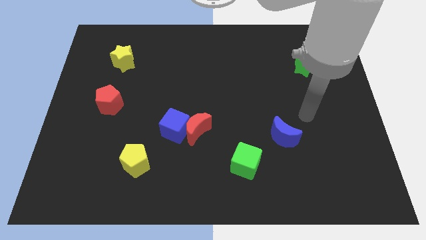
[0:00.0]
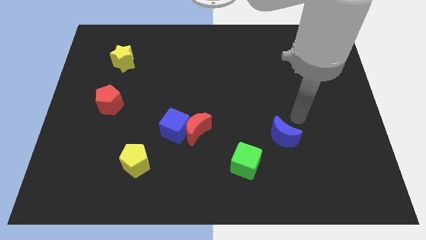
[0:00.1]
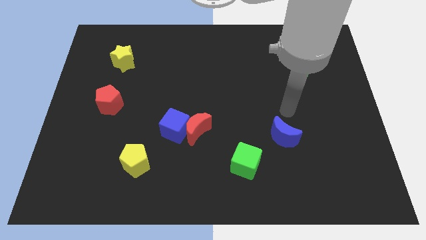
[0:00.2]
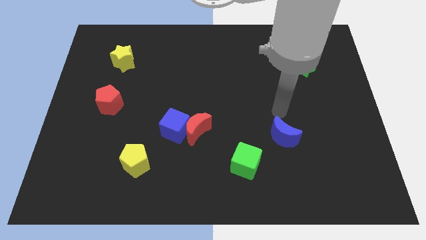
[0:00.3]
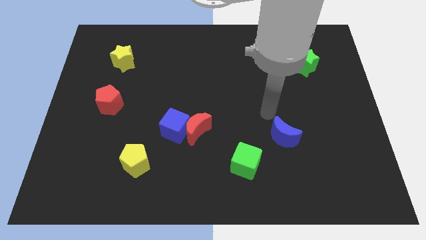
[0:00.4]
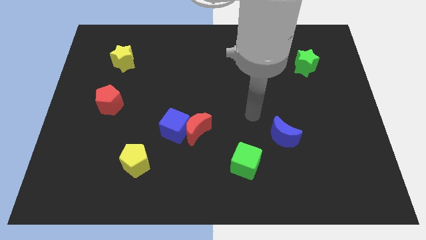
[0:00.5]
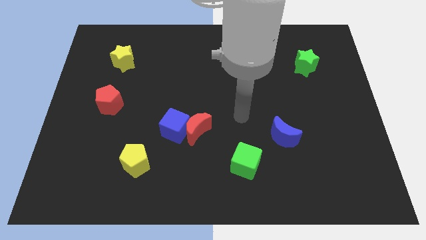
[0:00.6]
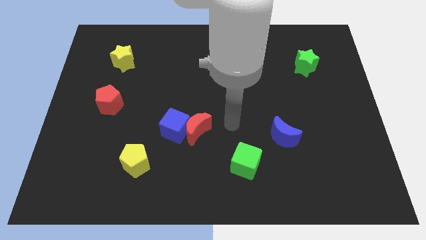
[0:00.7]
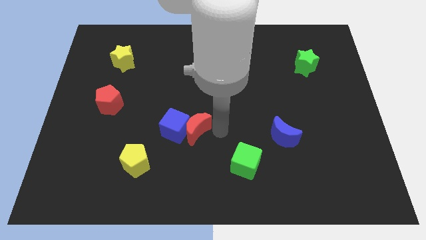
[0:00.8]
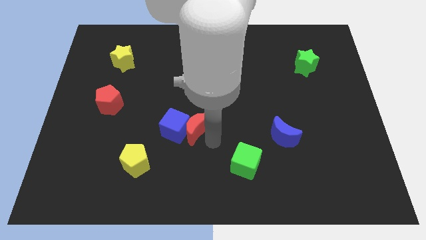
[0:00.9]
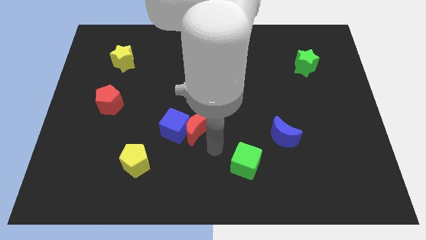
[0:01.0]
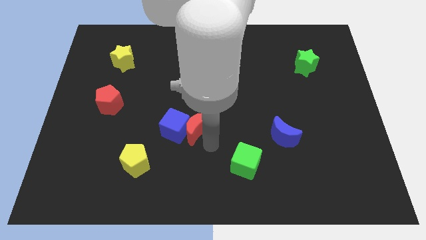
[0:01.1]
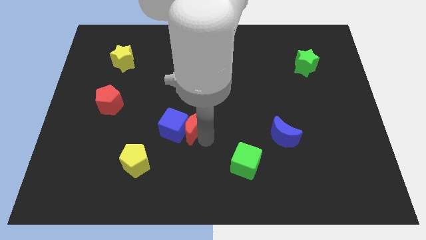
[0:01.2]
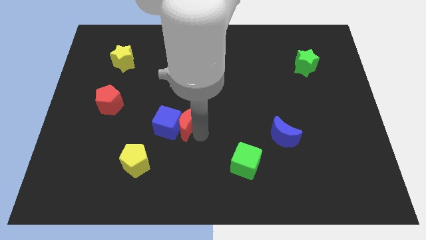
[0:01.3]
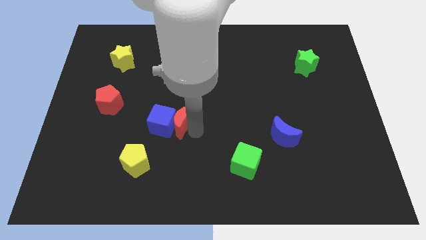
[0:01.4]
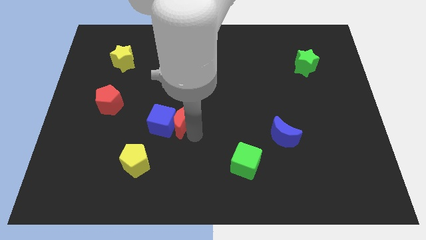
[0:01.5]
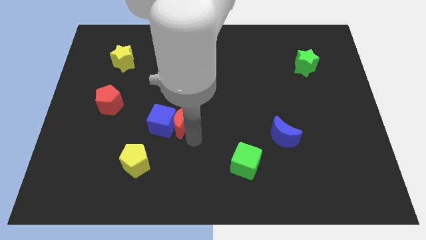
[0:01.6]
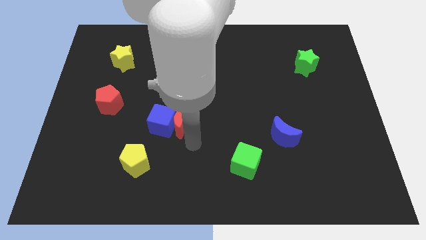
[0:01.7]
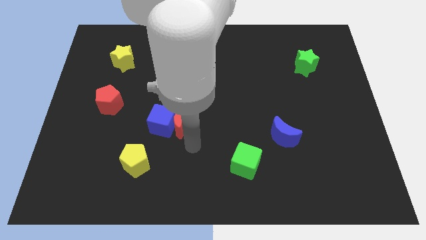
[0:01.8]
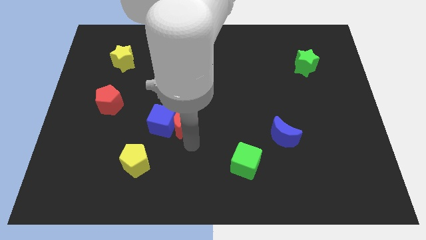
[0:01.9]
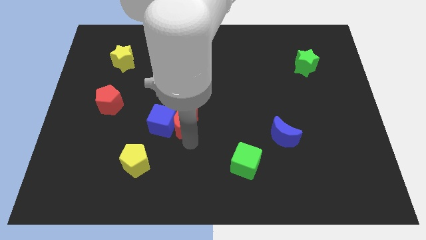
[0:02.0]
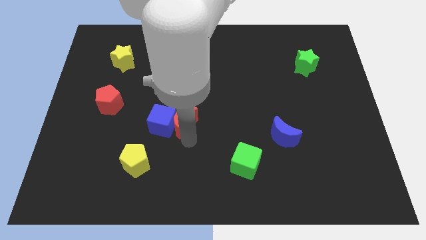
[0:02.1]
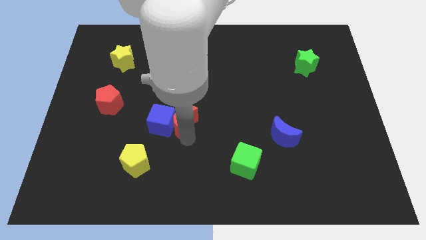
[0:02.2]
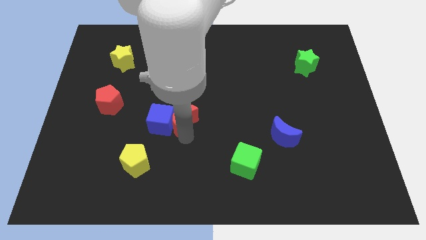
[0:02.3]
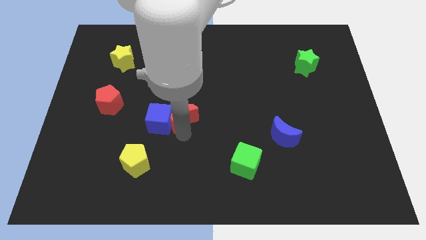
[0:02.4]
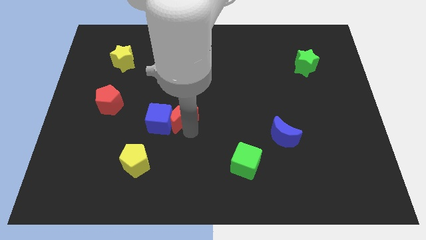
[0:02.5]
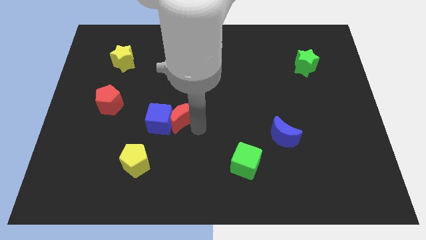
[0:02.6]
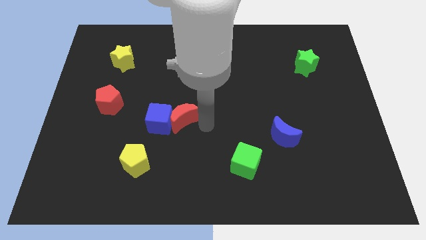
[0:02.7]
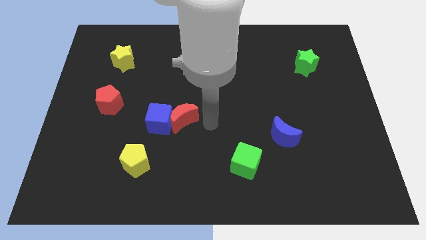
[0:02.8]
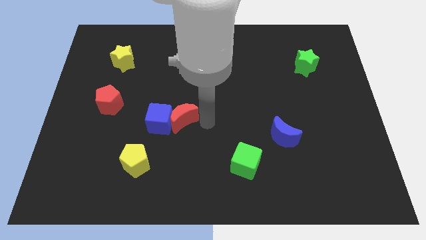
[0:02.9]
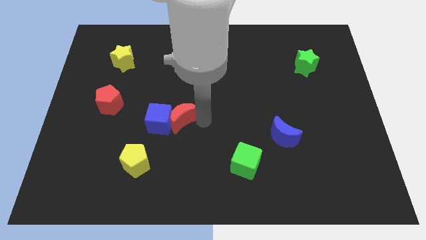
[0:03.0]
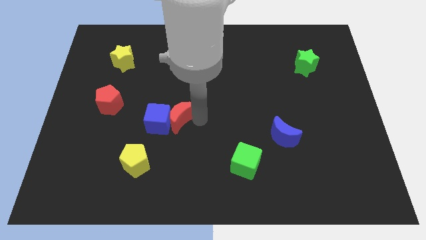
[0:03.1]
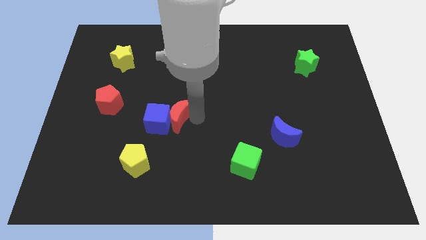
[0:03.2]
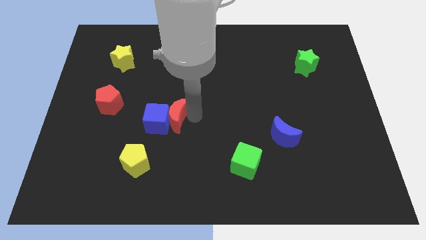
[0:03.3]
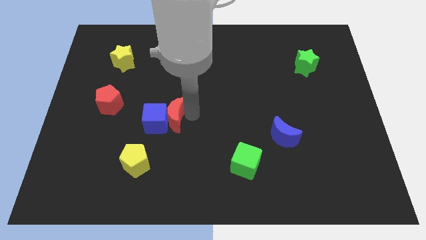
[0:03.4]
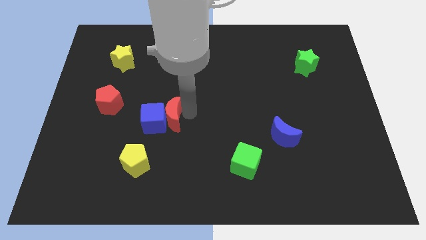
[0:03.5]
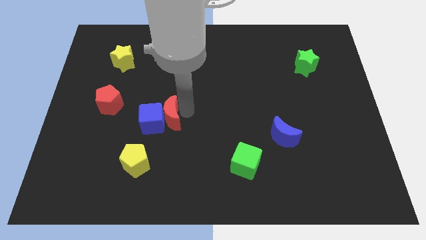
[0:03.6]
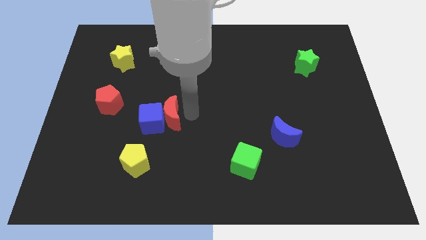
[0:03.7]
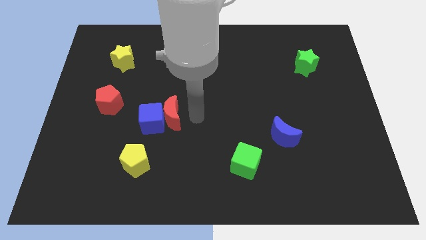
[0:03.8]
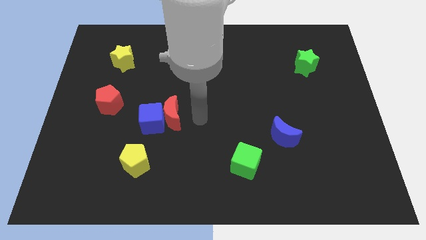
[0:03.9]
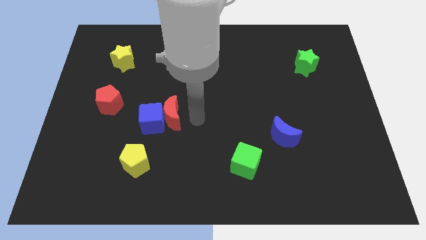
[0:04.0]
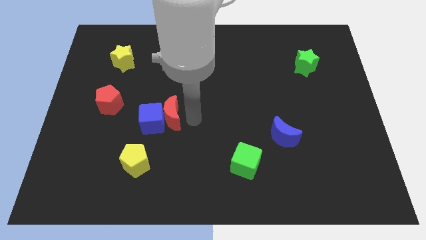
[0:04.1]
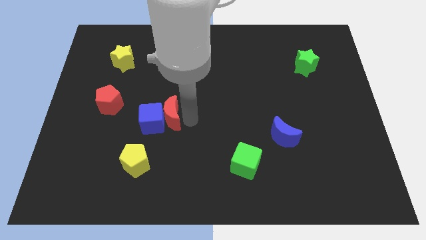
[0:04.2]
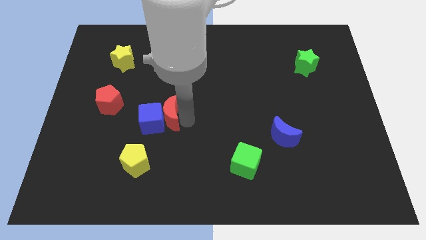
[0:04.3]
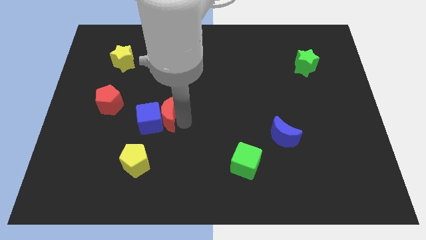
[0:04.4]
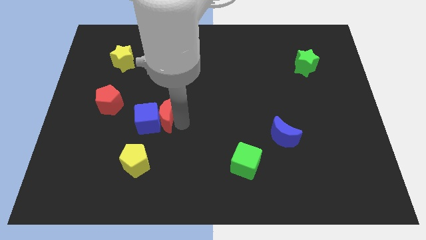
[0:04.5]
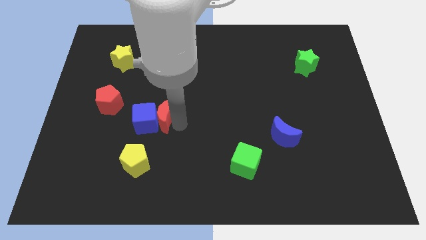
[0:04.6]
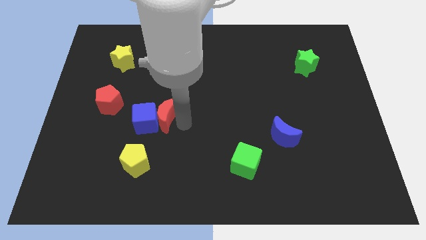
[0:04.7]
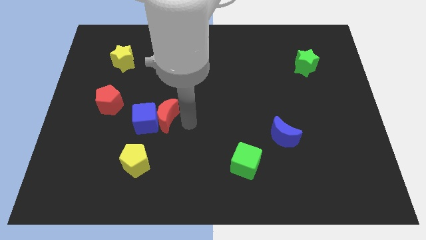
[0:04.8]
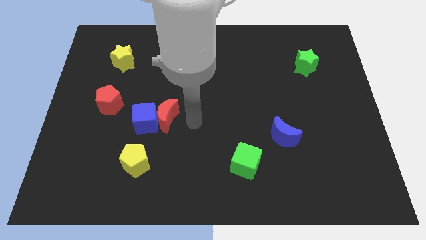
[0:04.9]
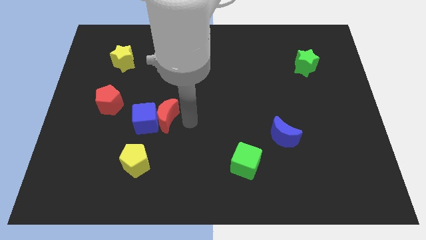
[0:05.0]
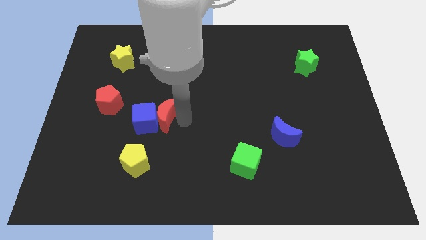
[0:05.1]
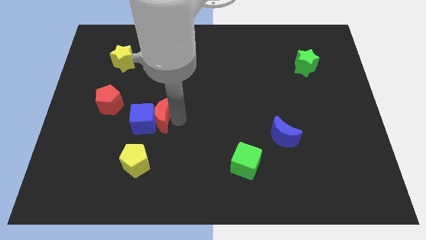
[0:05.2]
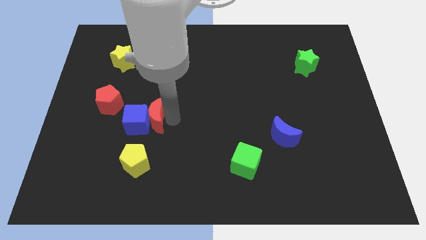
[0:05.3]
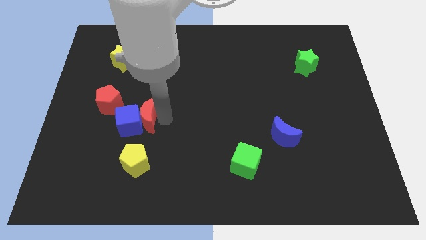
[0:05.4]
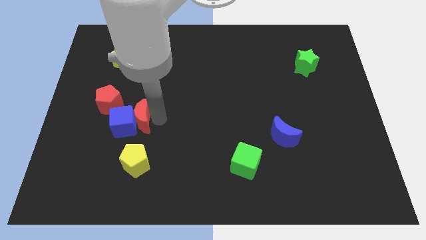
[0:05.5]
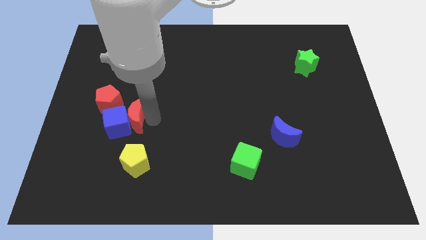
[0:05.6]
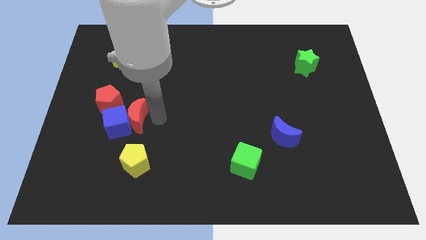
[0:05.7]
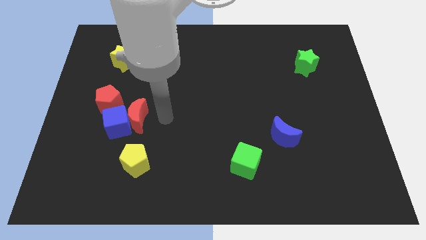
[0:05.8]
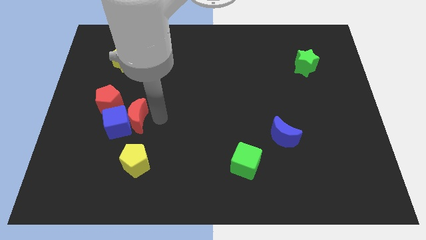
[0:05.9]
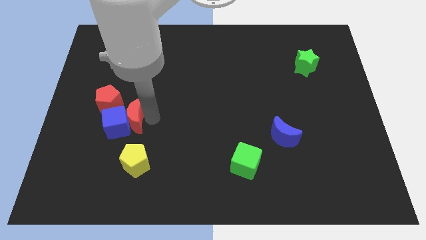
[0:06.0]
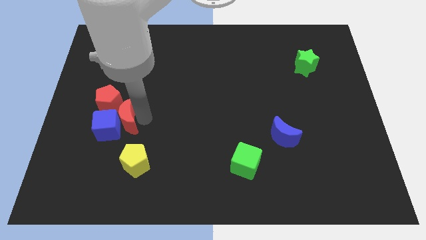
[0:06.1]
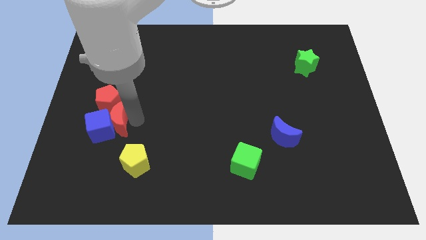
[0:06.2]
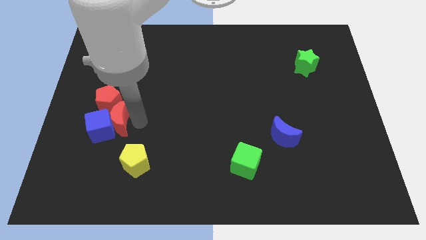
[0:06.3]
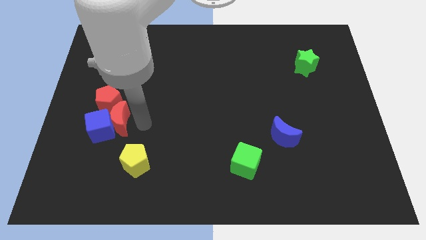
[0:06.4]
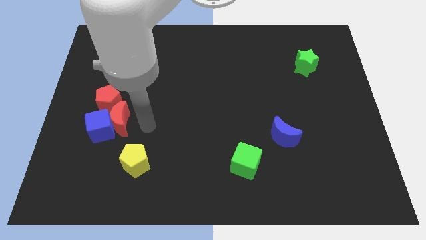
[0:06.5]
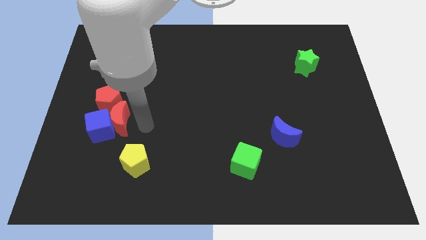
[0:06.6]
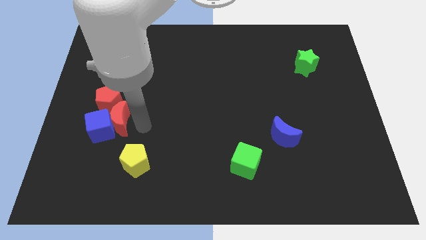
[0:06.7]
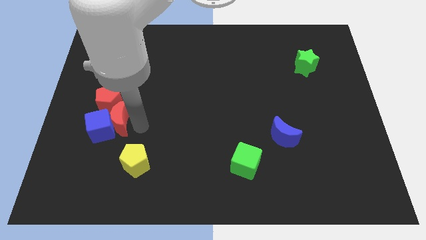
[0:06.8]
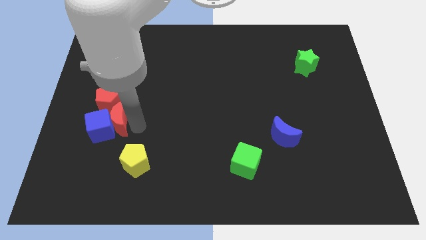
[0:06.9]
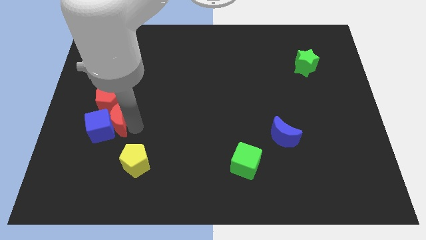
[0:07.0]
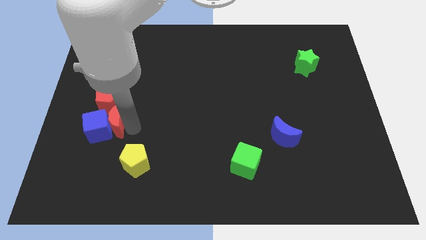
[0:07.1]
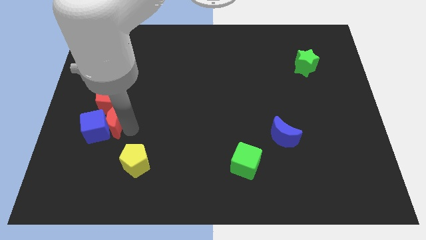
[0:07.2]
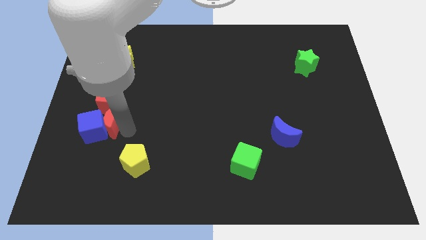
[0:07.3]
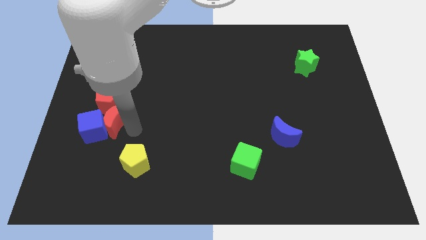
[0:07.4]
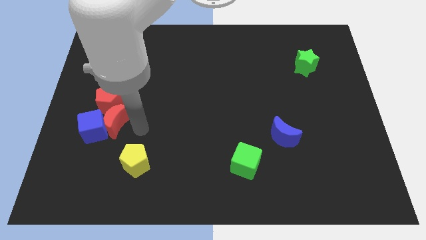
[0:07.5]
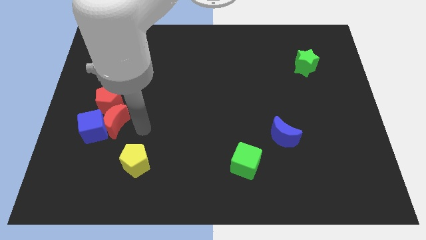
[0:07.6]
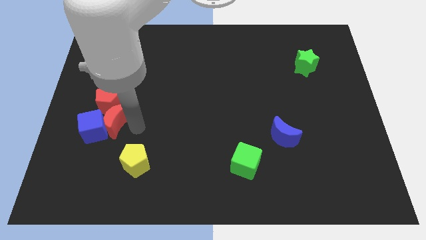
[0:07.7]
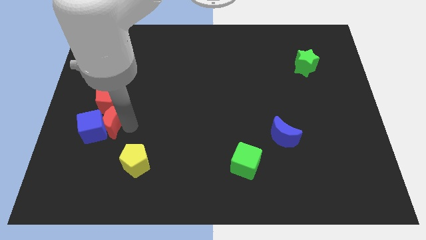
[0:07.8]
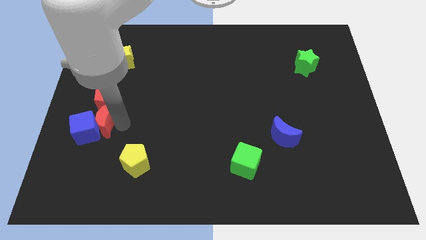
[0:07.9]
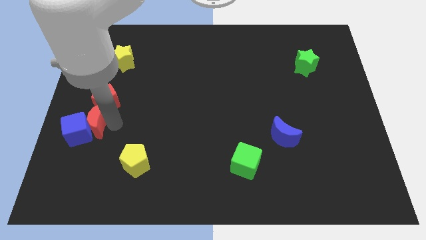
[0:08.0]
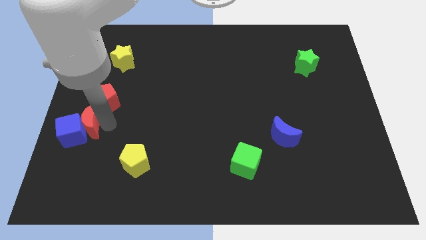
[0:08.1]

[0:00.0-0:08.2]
push the red moon to the left side of the board
